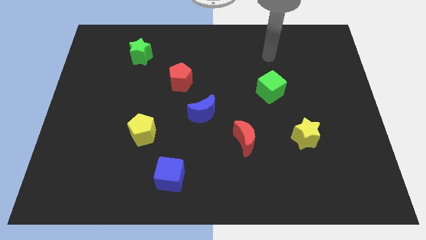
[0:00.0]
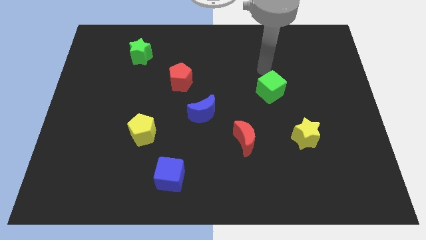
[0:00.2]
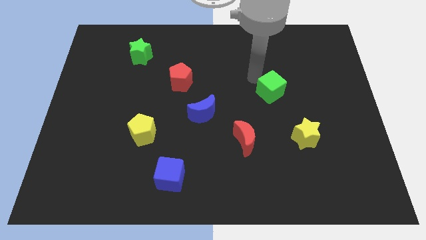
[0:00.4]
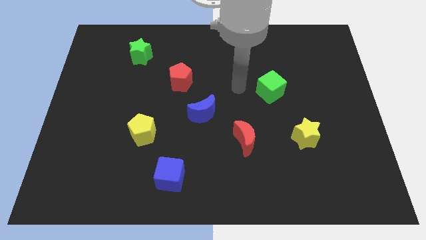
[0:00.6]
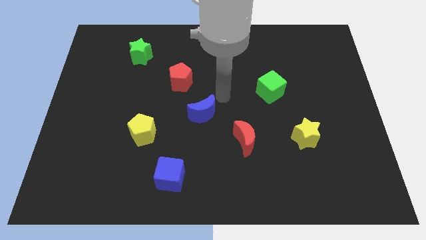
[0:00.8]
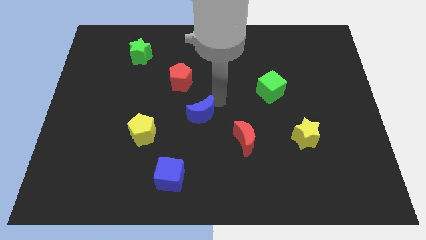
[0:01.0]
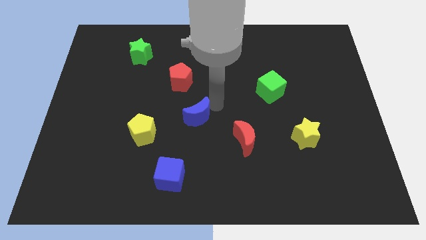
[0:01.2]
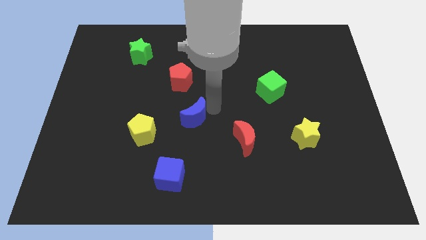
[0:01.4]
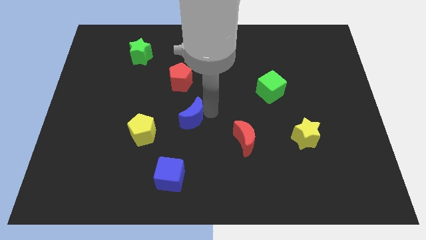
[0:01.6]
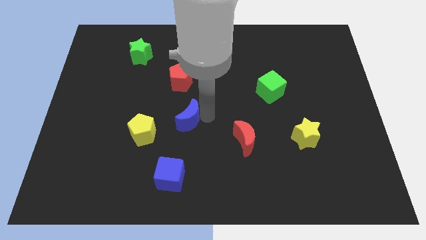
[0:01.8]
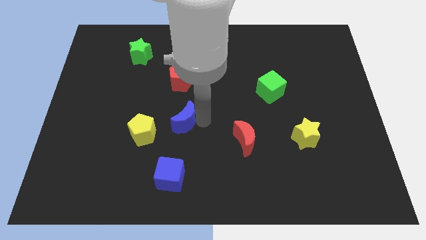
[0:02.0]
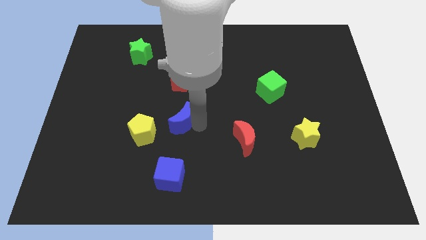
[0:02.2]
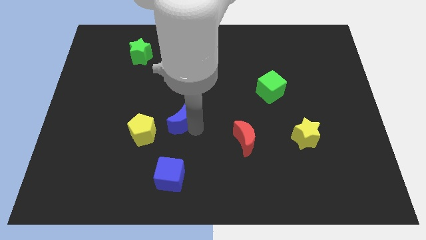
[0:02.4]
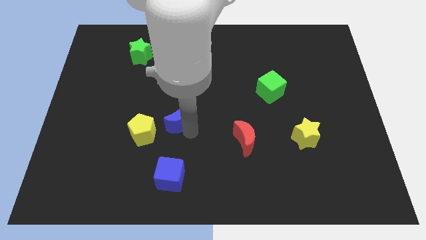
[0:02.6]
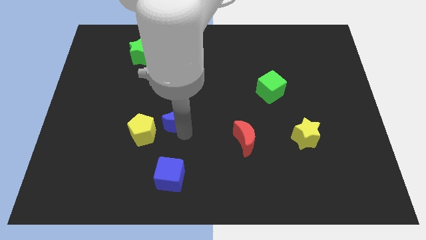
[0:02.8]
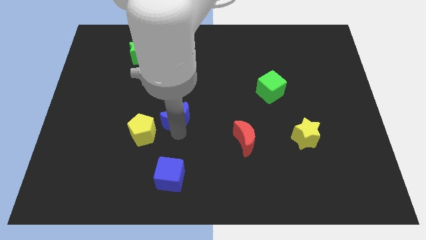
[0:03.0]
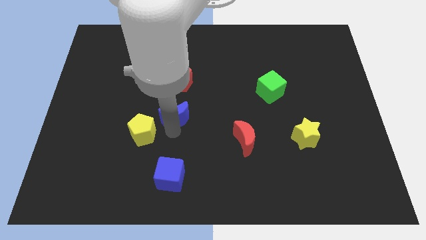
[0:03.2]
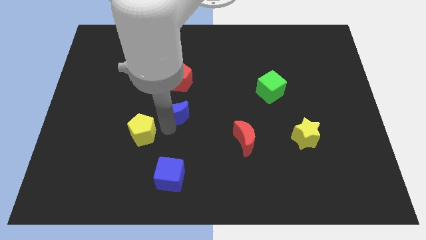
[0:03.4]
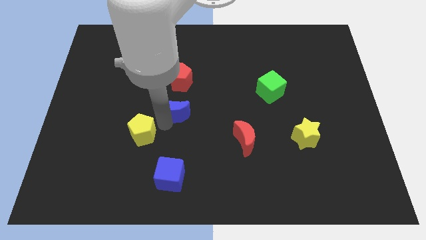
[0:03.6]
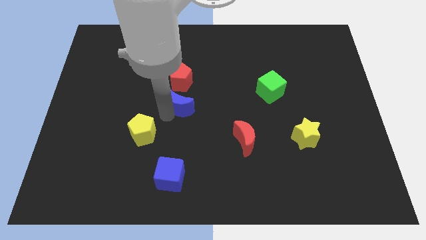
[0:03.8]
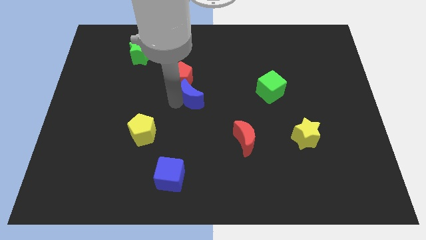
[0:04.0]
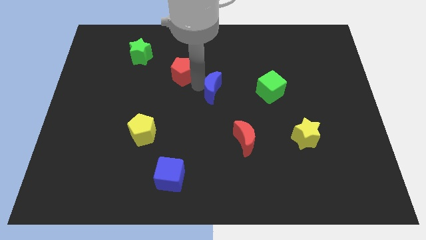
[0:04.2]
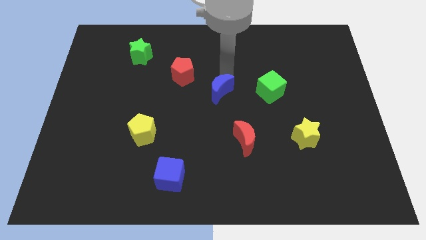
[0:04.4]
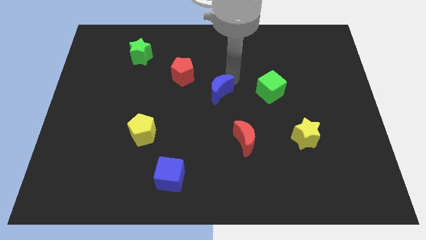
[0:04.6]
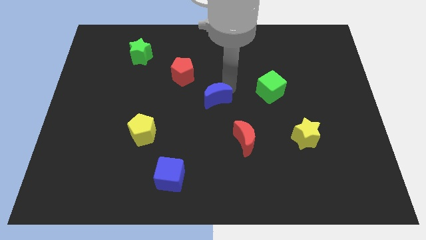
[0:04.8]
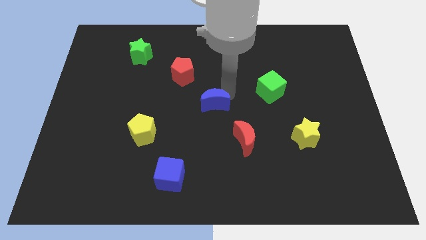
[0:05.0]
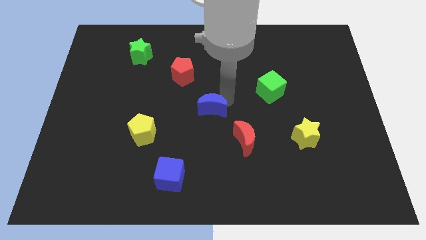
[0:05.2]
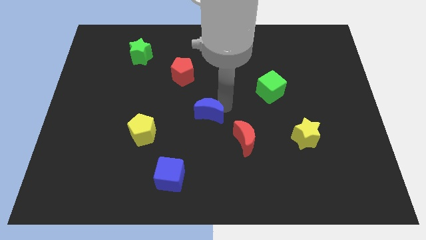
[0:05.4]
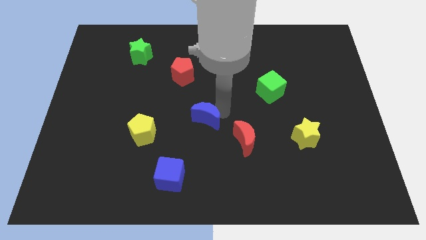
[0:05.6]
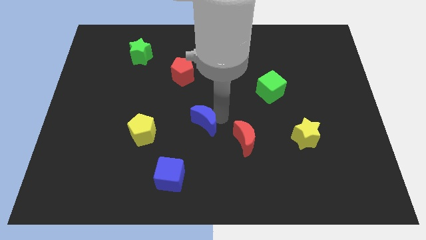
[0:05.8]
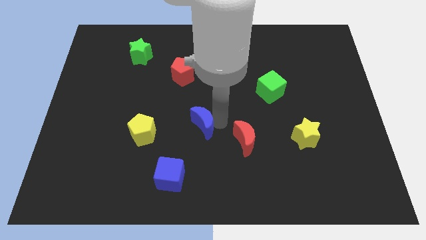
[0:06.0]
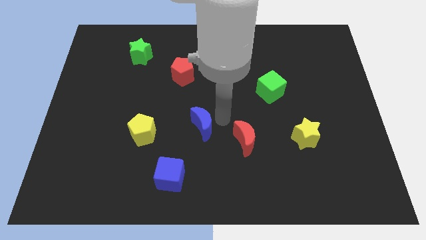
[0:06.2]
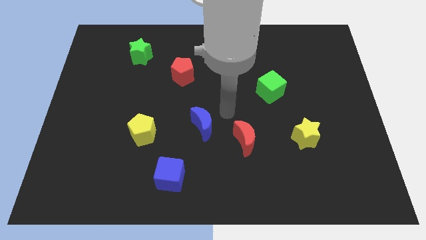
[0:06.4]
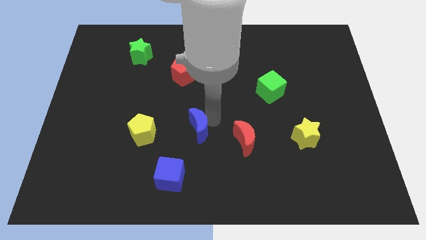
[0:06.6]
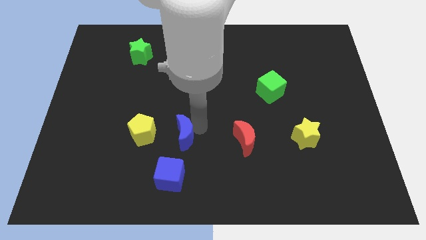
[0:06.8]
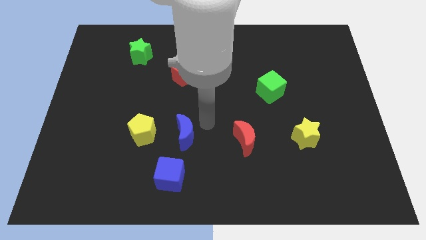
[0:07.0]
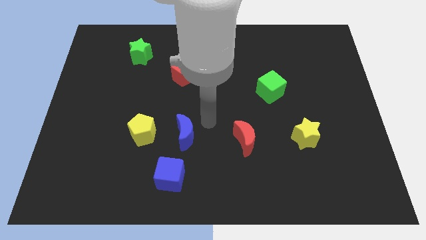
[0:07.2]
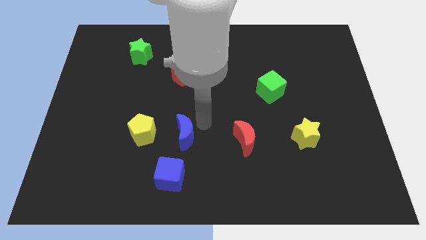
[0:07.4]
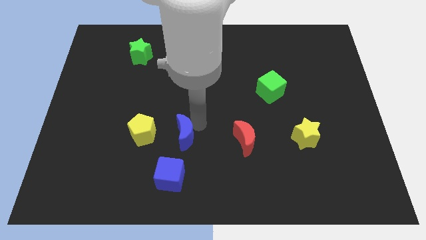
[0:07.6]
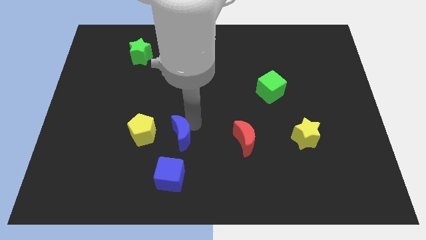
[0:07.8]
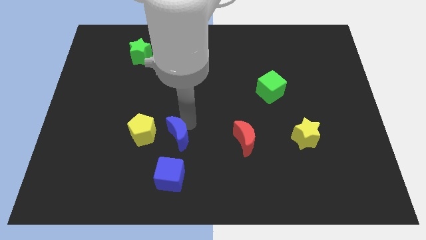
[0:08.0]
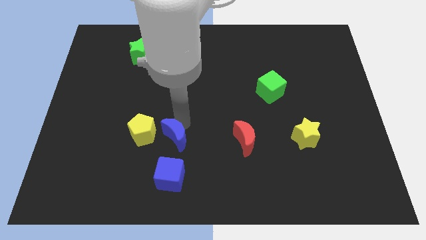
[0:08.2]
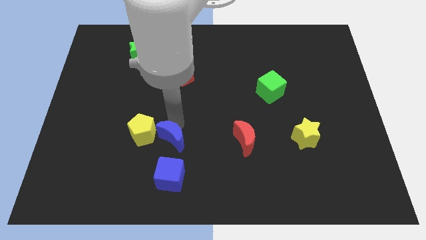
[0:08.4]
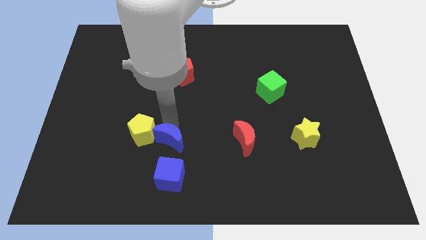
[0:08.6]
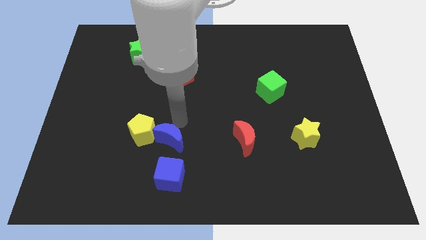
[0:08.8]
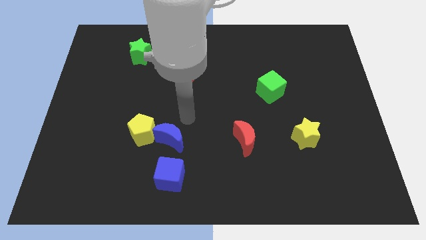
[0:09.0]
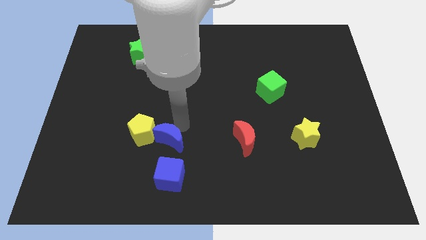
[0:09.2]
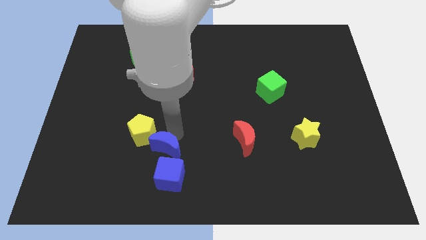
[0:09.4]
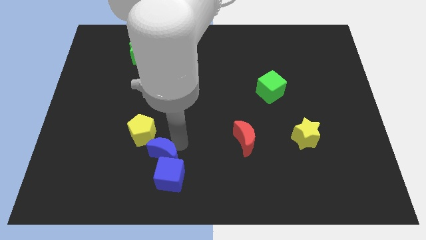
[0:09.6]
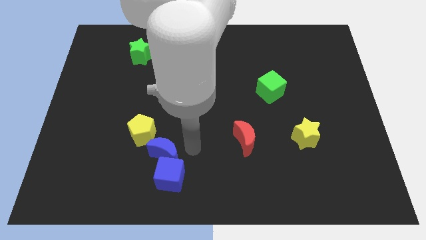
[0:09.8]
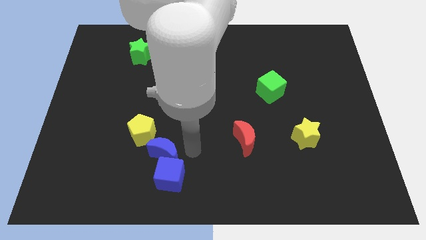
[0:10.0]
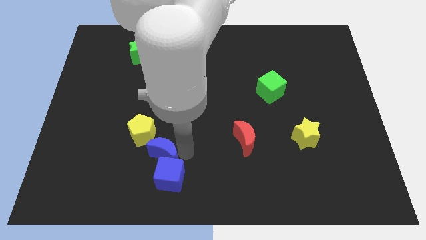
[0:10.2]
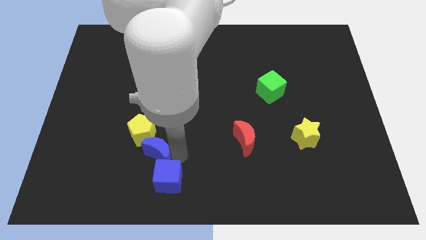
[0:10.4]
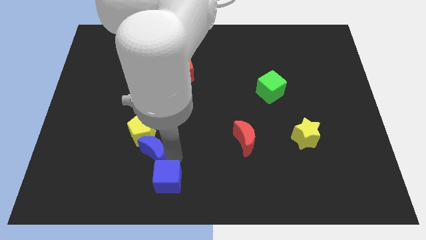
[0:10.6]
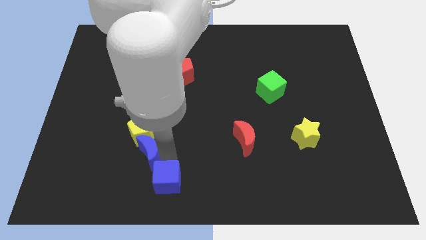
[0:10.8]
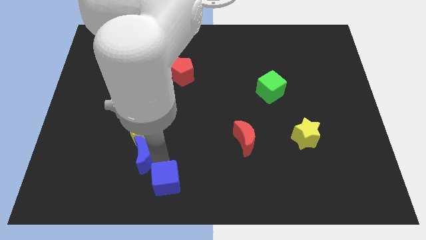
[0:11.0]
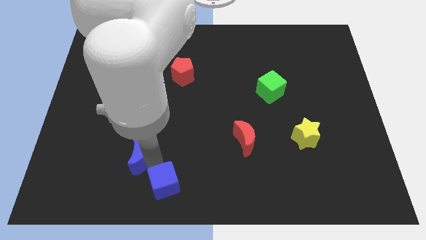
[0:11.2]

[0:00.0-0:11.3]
put the blue moon to the bottom left side of the yellow pentagon
